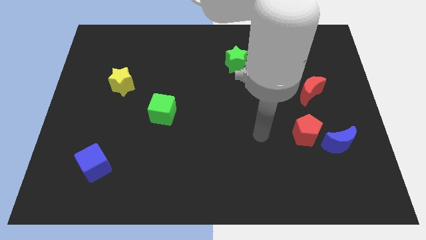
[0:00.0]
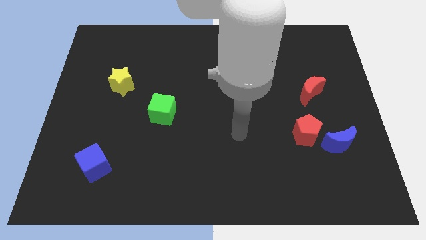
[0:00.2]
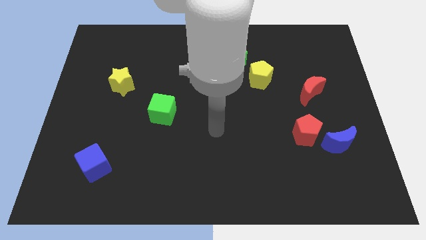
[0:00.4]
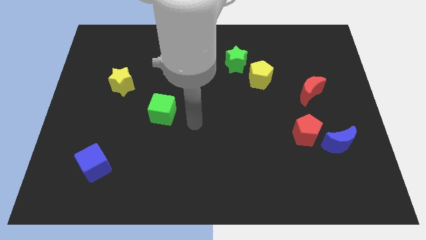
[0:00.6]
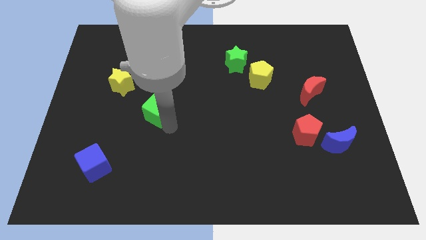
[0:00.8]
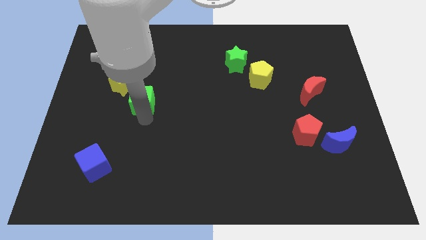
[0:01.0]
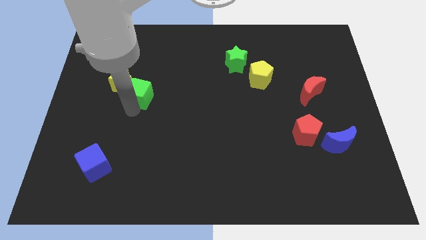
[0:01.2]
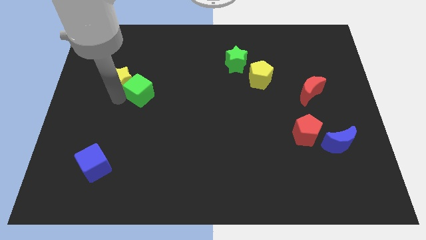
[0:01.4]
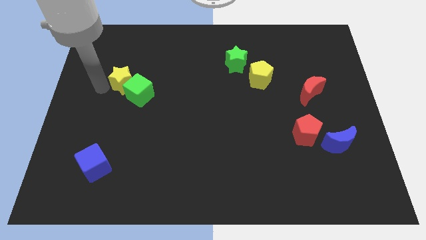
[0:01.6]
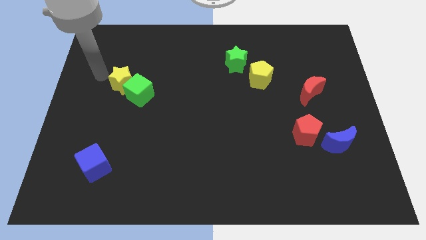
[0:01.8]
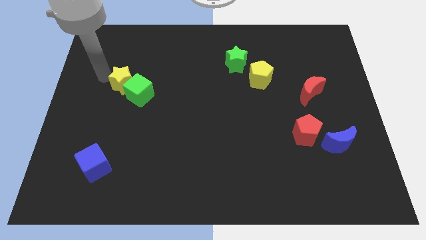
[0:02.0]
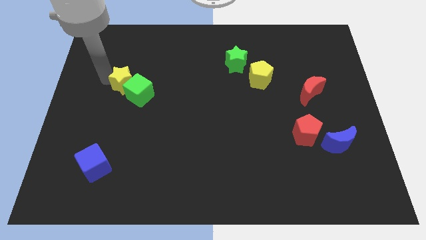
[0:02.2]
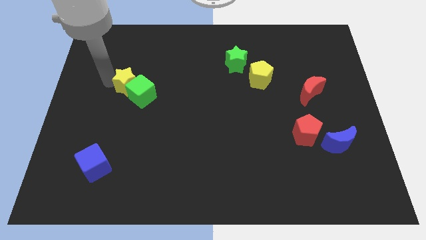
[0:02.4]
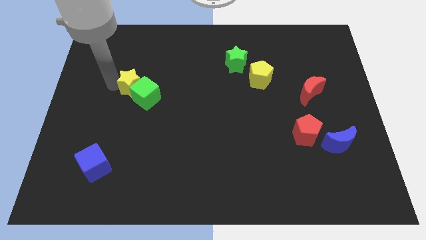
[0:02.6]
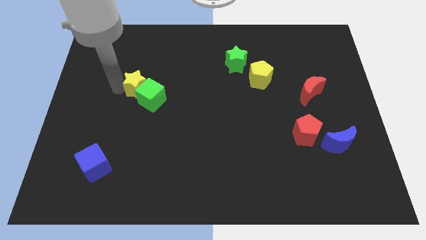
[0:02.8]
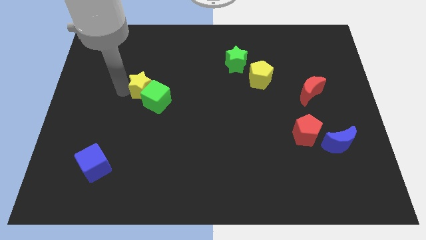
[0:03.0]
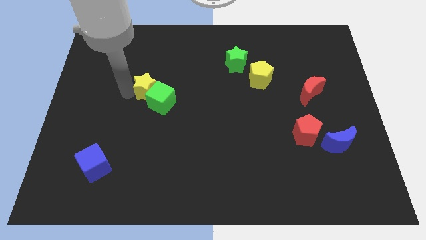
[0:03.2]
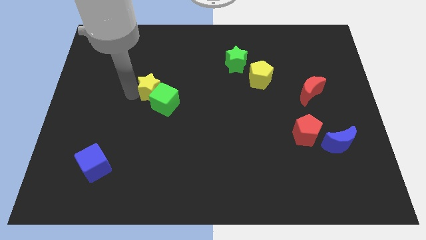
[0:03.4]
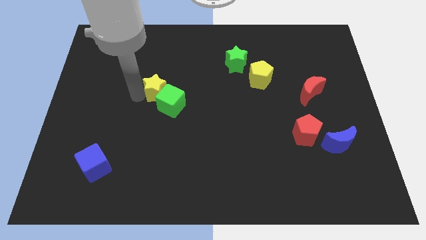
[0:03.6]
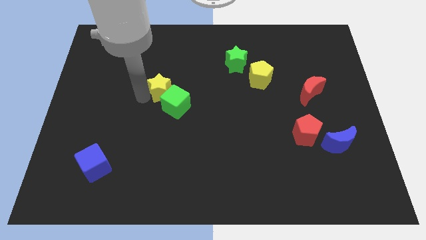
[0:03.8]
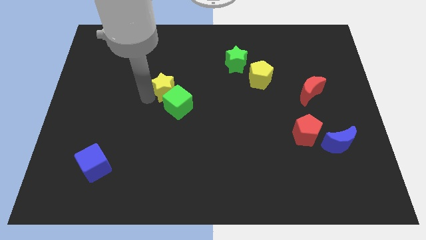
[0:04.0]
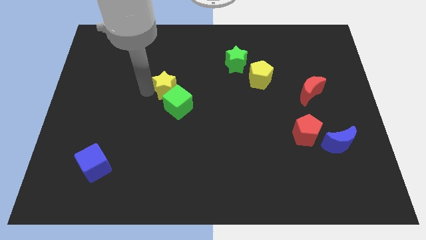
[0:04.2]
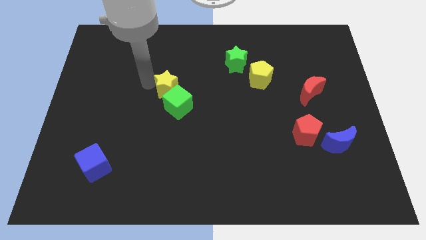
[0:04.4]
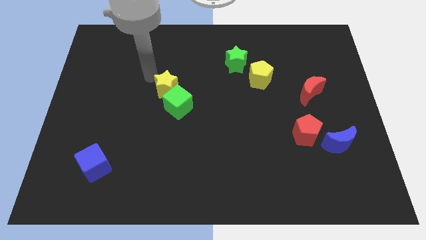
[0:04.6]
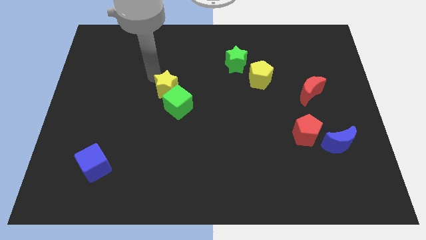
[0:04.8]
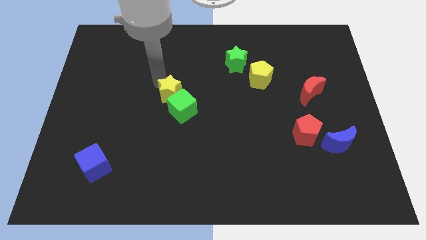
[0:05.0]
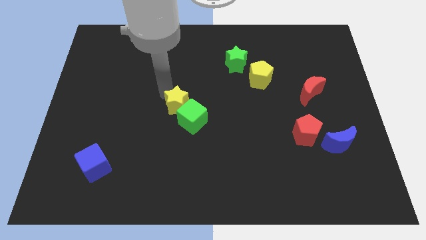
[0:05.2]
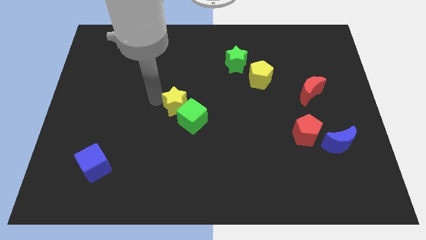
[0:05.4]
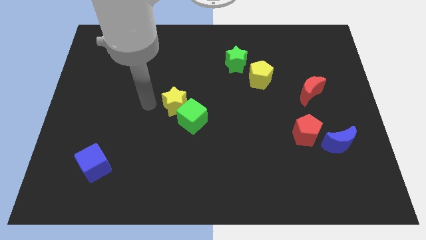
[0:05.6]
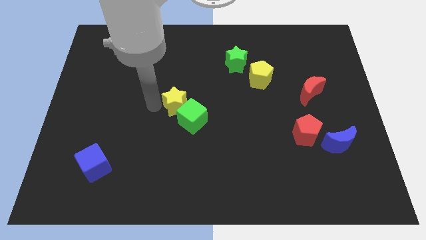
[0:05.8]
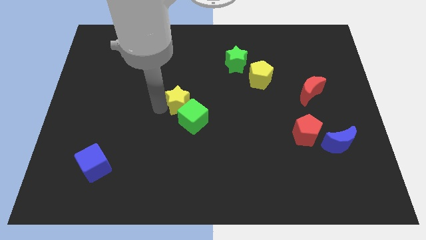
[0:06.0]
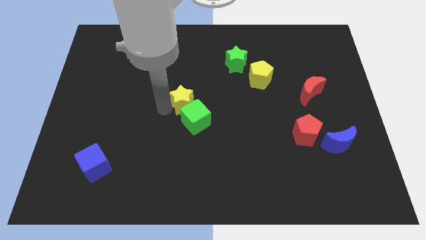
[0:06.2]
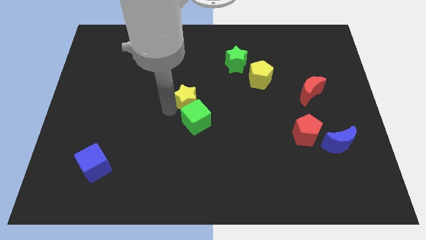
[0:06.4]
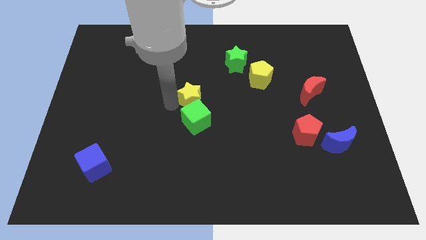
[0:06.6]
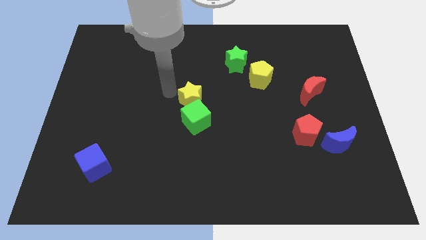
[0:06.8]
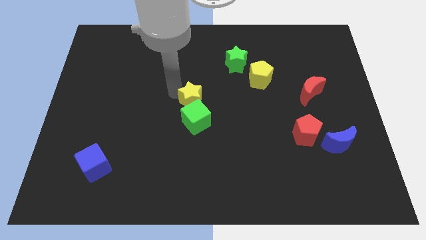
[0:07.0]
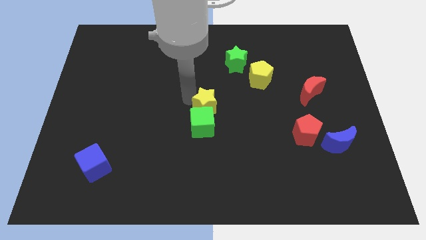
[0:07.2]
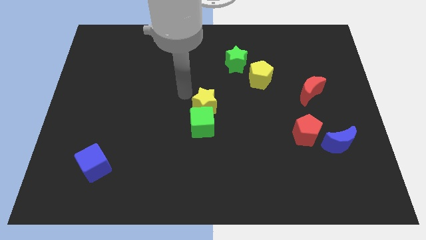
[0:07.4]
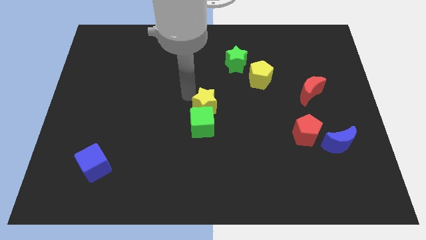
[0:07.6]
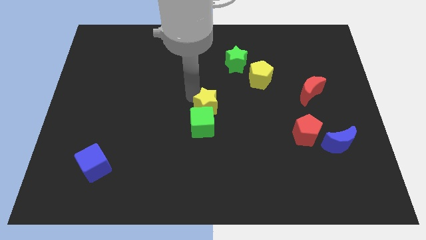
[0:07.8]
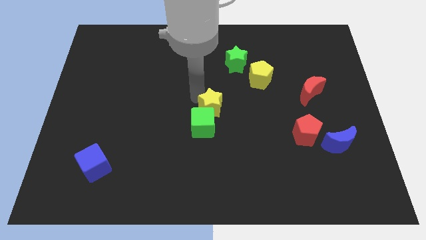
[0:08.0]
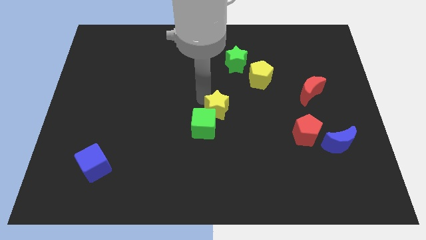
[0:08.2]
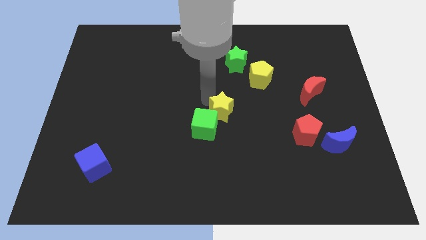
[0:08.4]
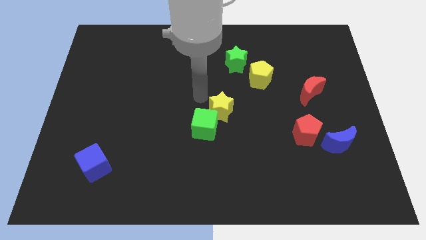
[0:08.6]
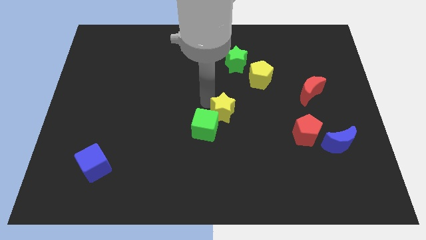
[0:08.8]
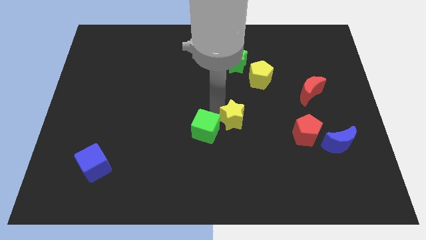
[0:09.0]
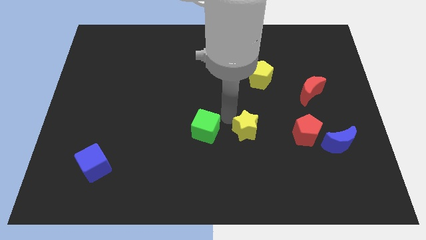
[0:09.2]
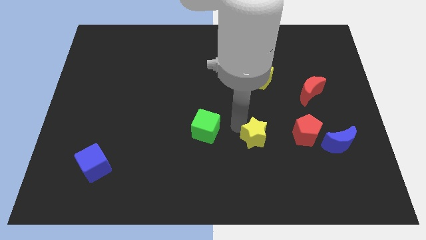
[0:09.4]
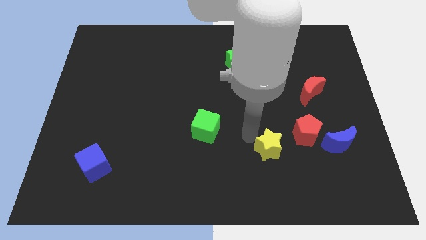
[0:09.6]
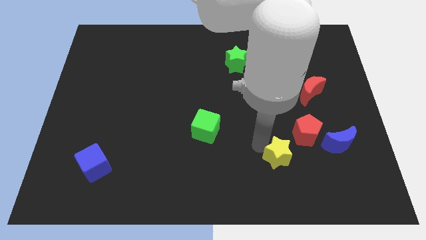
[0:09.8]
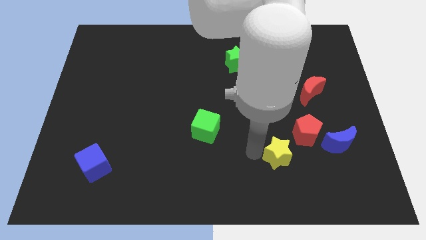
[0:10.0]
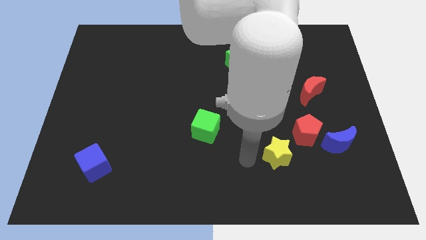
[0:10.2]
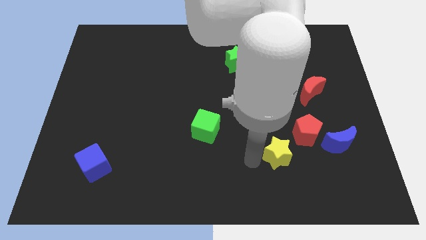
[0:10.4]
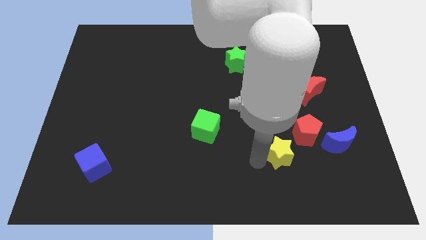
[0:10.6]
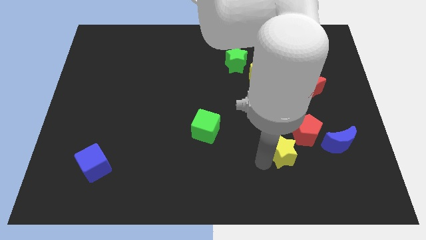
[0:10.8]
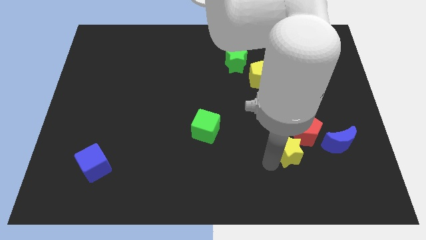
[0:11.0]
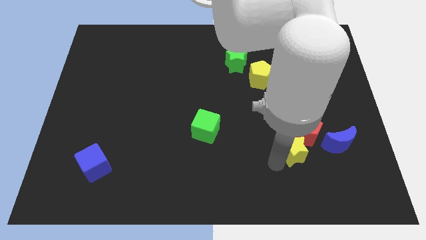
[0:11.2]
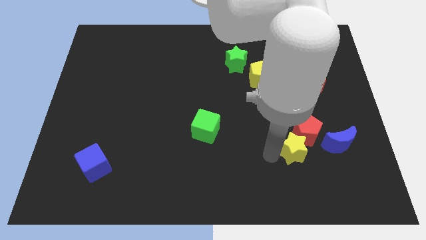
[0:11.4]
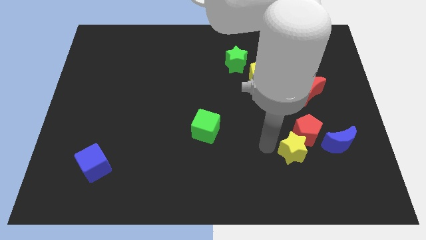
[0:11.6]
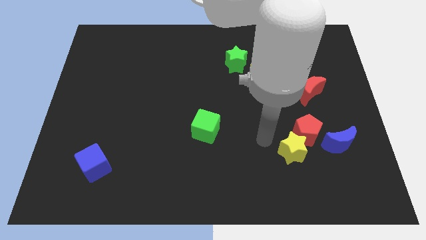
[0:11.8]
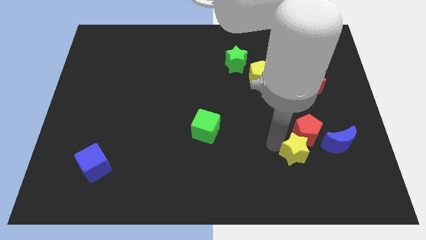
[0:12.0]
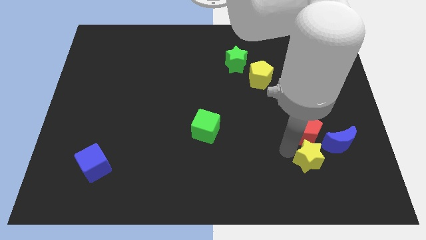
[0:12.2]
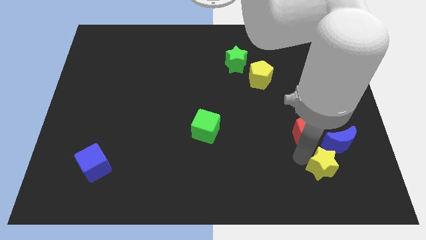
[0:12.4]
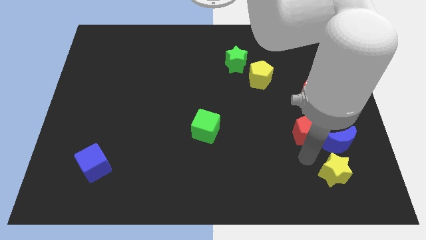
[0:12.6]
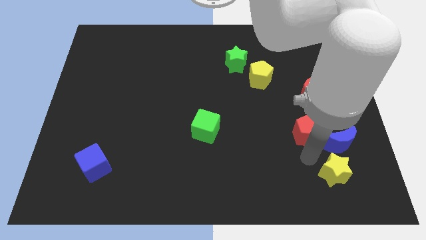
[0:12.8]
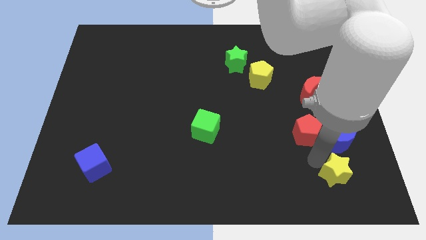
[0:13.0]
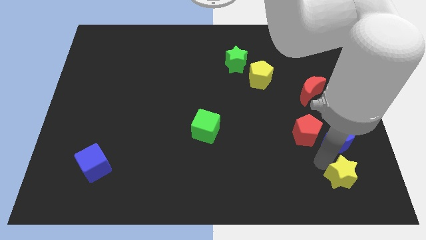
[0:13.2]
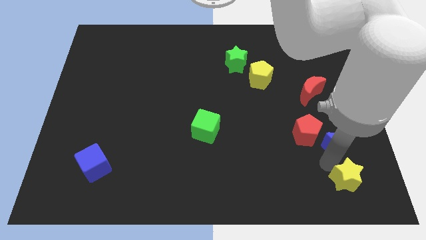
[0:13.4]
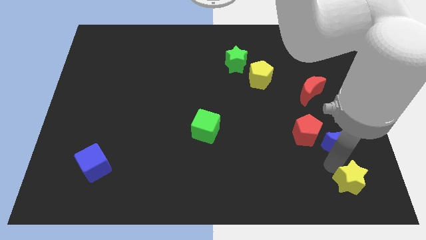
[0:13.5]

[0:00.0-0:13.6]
move the yellow star to the bottom right corner
